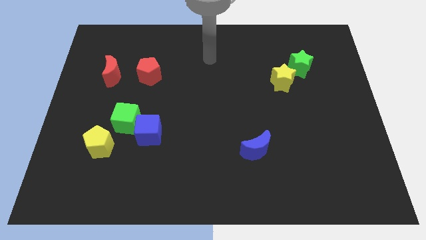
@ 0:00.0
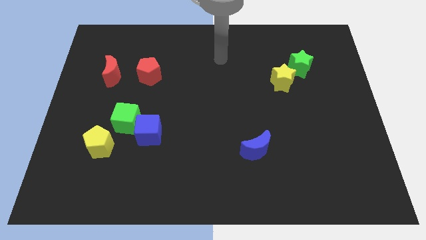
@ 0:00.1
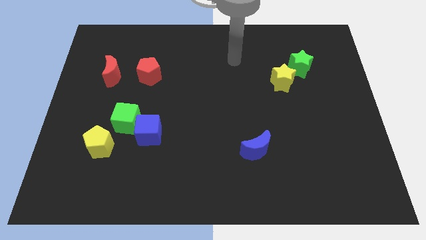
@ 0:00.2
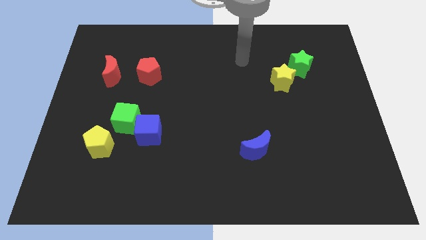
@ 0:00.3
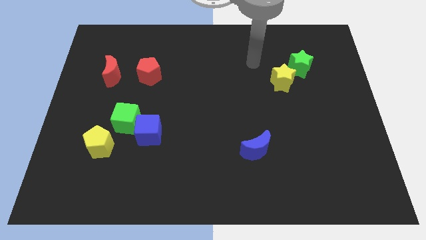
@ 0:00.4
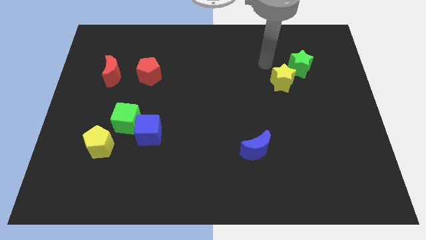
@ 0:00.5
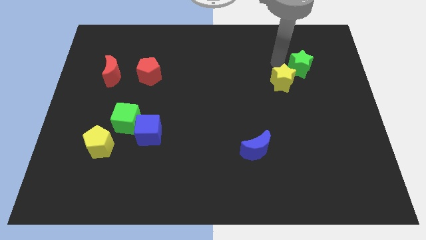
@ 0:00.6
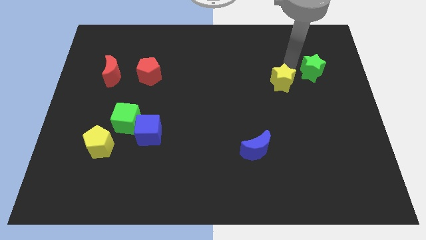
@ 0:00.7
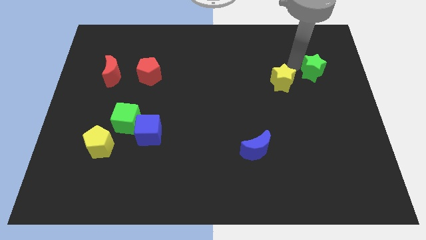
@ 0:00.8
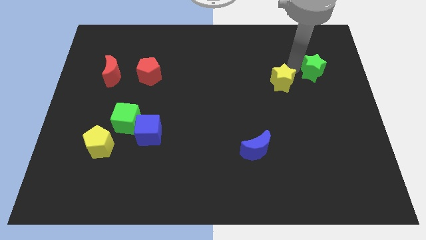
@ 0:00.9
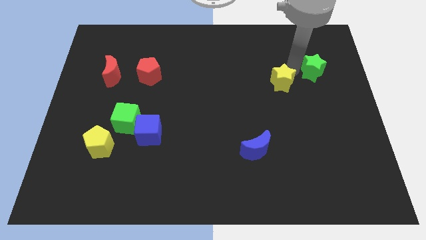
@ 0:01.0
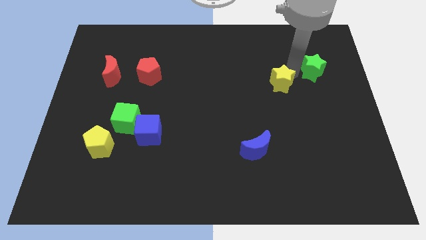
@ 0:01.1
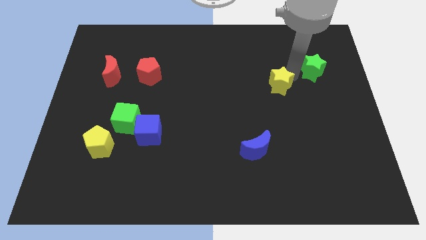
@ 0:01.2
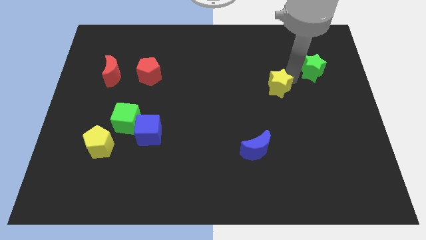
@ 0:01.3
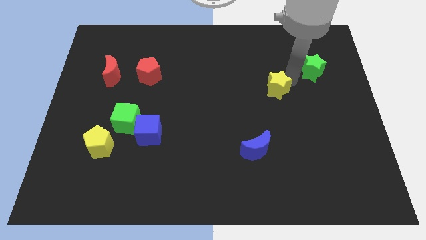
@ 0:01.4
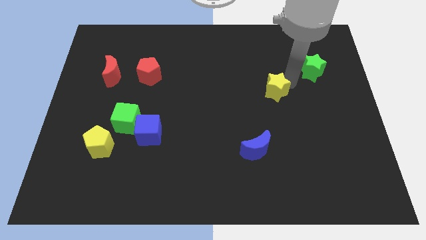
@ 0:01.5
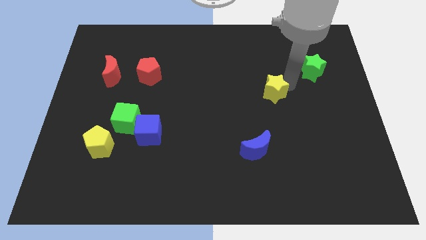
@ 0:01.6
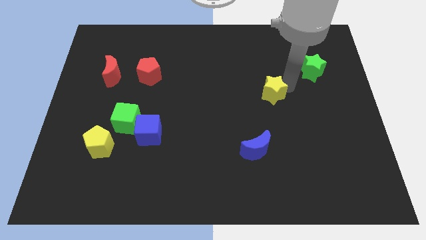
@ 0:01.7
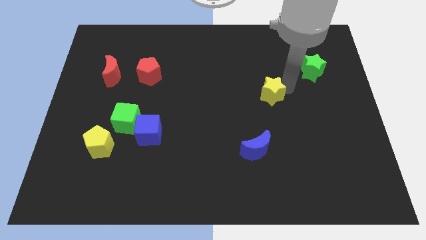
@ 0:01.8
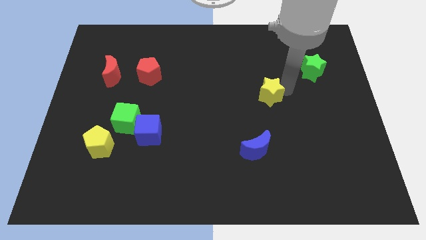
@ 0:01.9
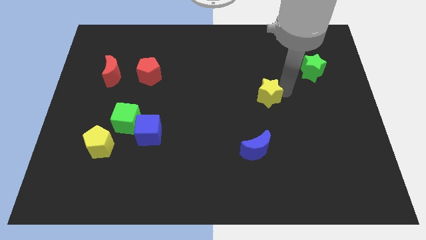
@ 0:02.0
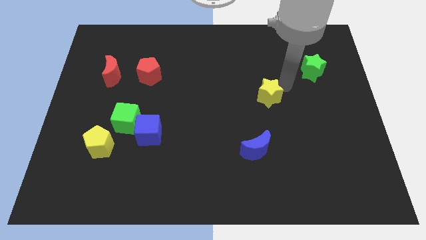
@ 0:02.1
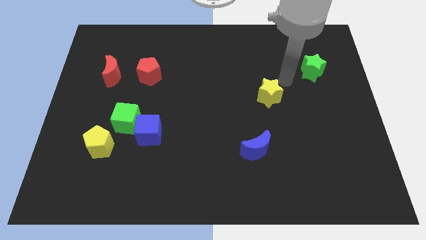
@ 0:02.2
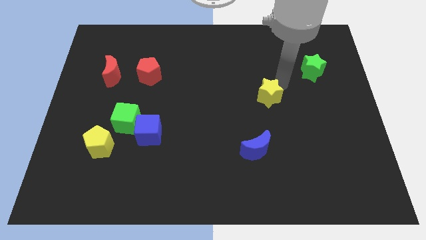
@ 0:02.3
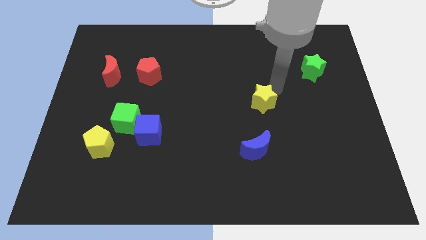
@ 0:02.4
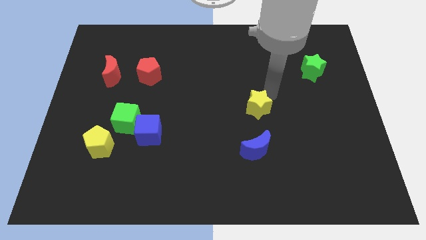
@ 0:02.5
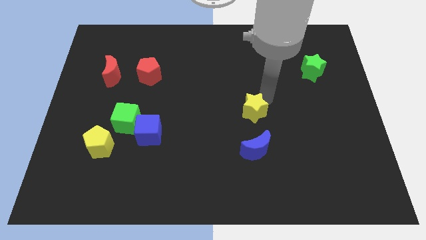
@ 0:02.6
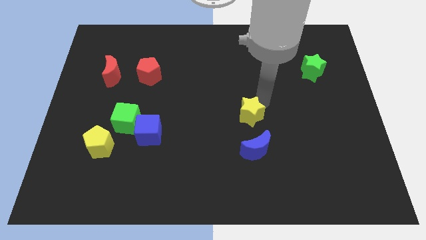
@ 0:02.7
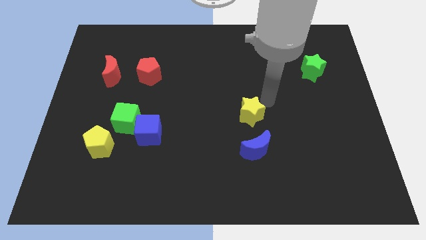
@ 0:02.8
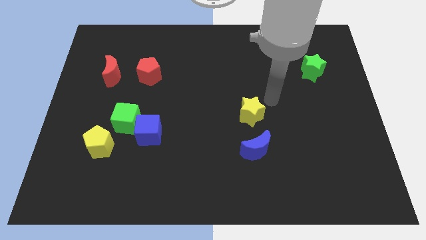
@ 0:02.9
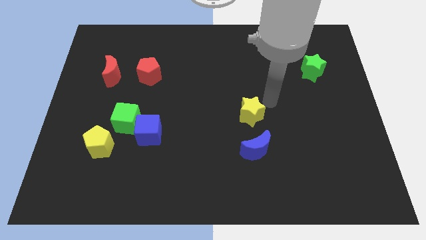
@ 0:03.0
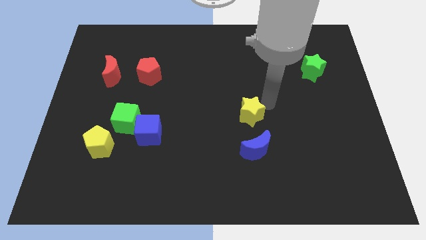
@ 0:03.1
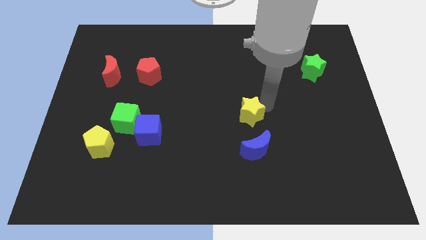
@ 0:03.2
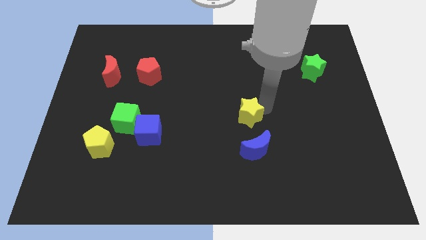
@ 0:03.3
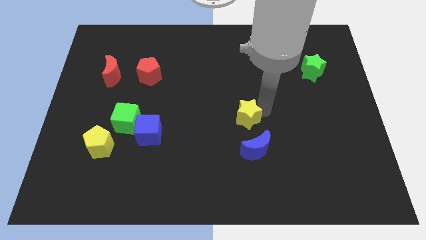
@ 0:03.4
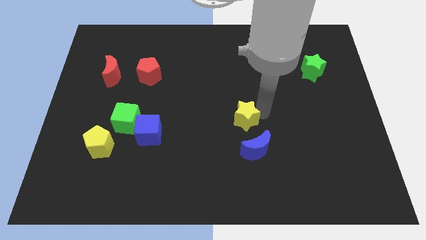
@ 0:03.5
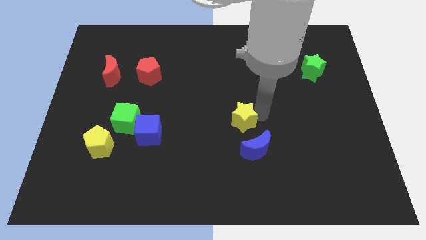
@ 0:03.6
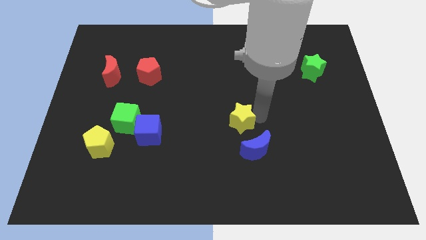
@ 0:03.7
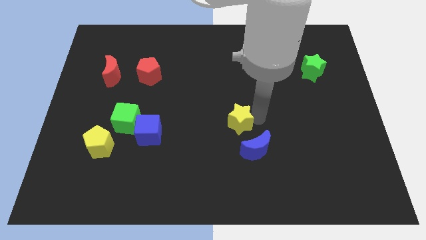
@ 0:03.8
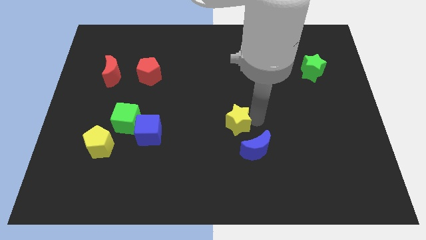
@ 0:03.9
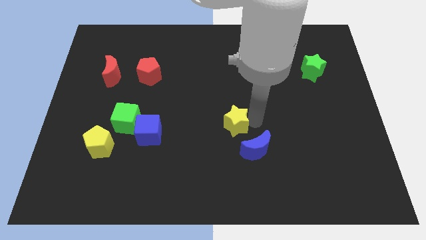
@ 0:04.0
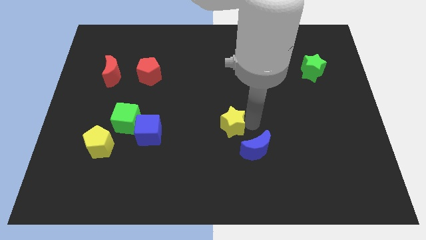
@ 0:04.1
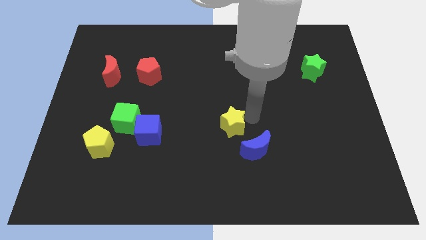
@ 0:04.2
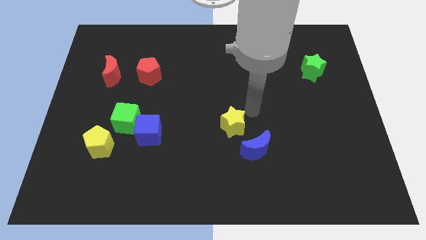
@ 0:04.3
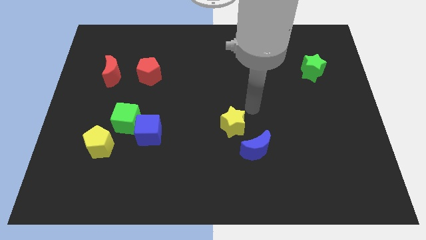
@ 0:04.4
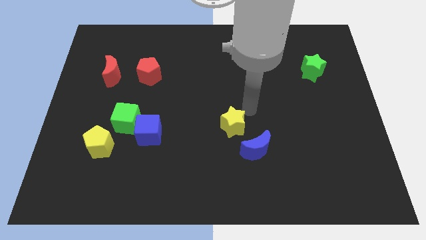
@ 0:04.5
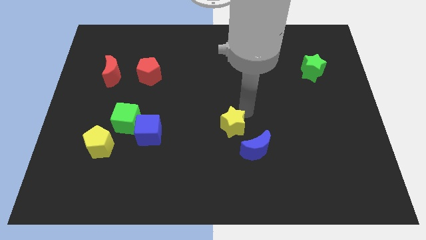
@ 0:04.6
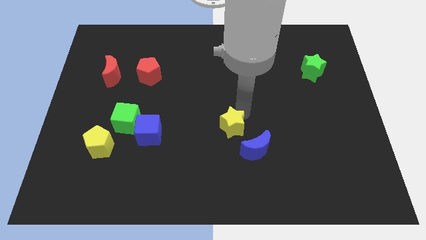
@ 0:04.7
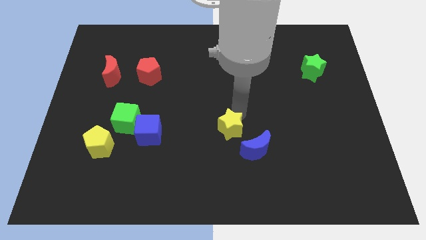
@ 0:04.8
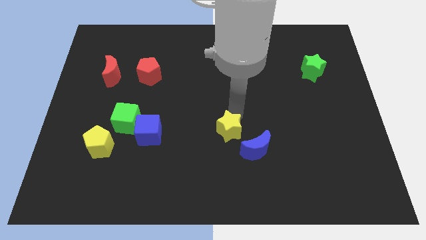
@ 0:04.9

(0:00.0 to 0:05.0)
move the yellow star down and then to the left

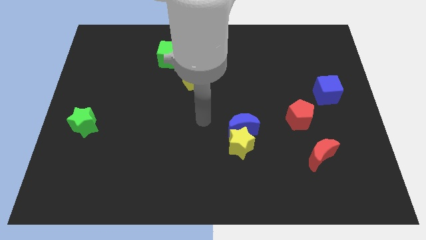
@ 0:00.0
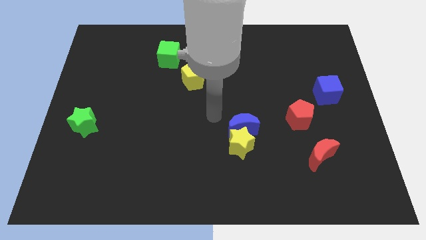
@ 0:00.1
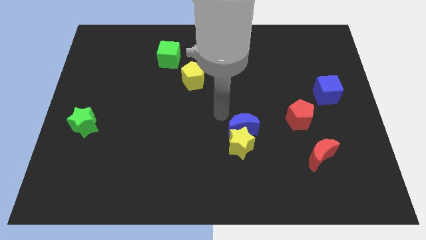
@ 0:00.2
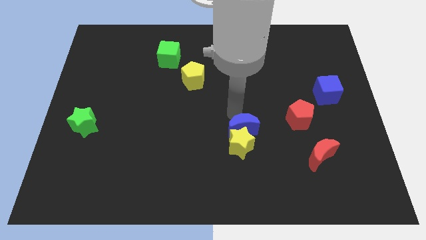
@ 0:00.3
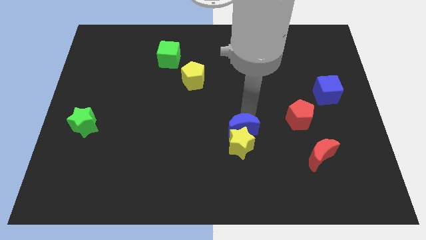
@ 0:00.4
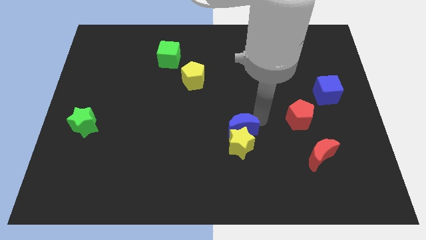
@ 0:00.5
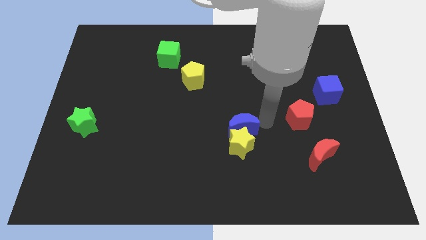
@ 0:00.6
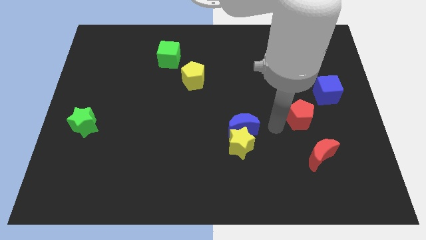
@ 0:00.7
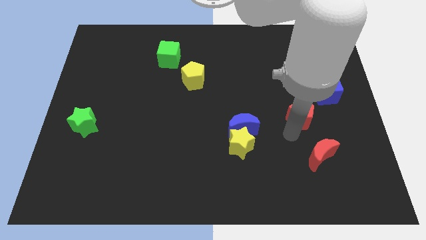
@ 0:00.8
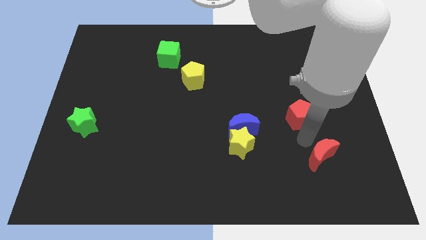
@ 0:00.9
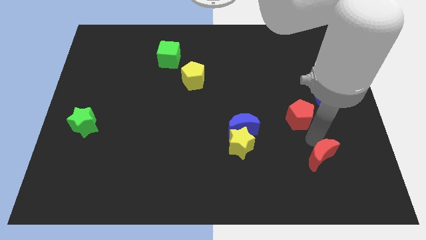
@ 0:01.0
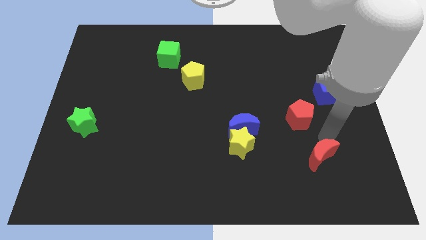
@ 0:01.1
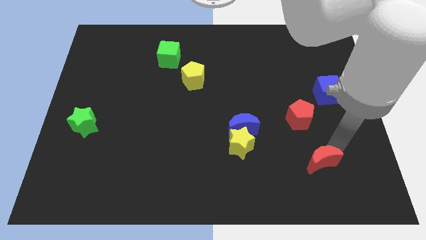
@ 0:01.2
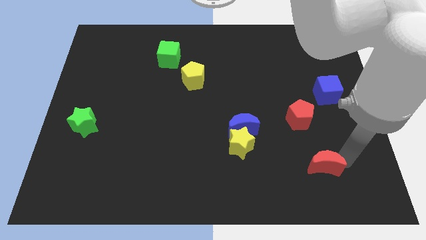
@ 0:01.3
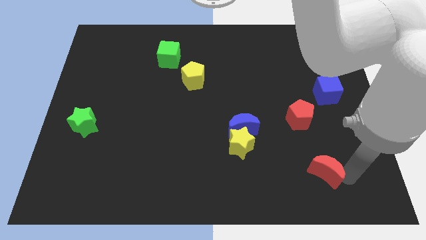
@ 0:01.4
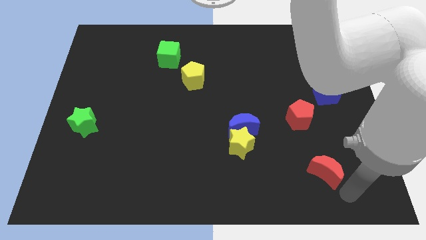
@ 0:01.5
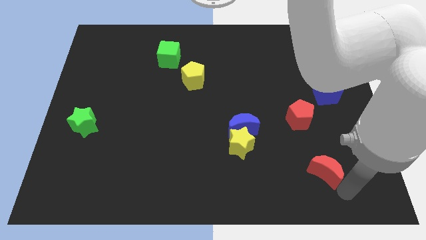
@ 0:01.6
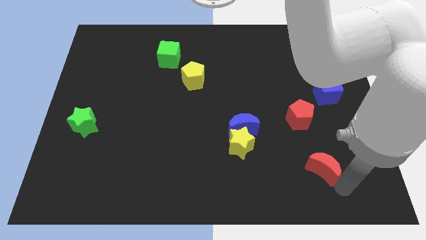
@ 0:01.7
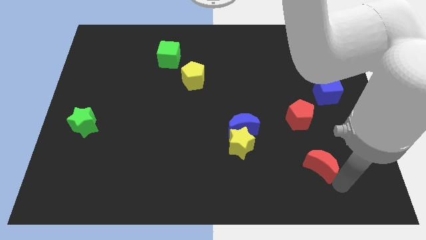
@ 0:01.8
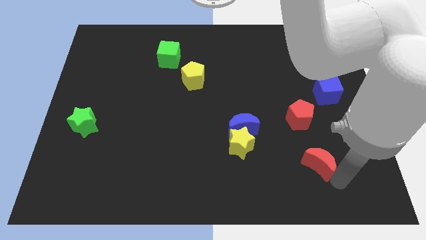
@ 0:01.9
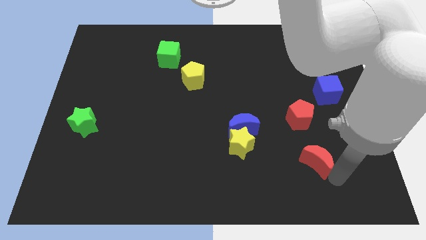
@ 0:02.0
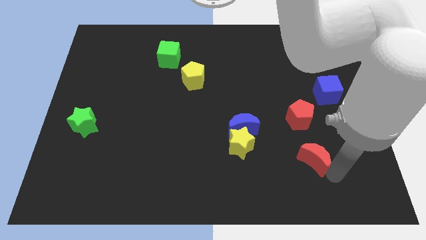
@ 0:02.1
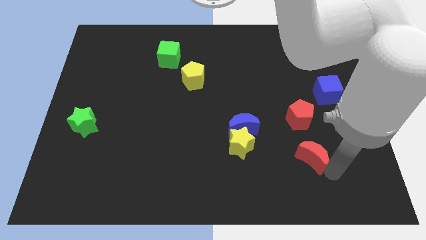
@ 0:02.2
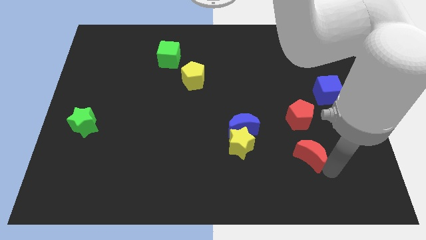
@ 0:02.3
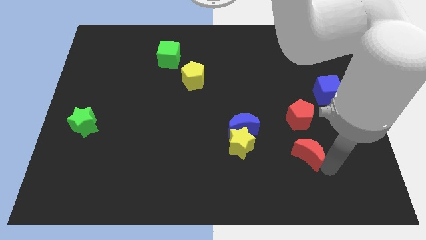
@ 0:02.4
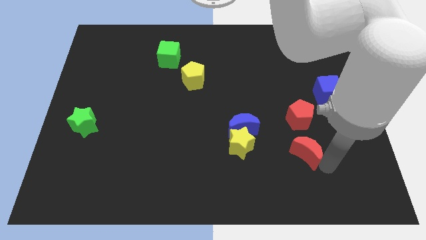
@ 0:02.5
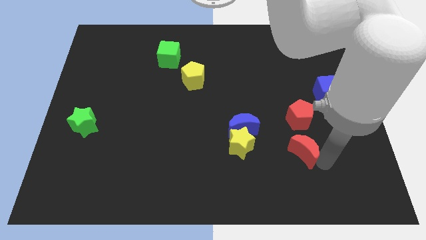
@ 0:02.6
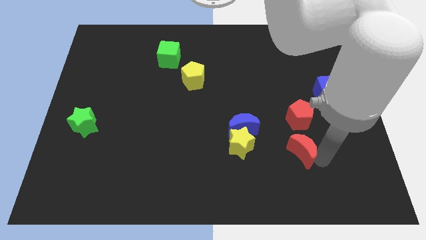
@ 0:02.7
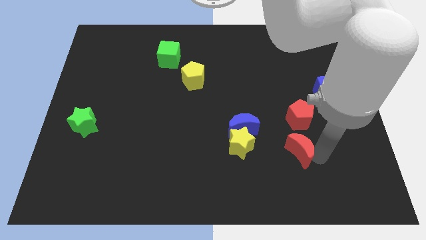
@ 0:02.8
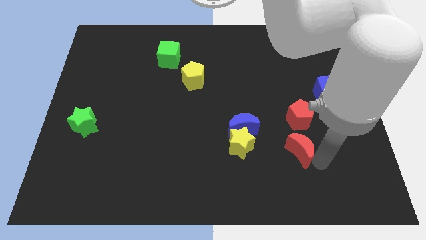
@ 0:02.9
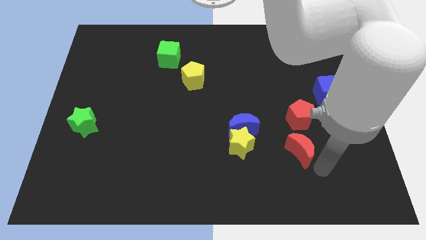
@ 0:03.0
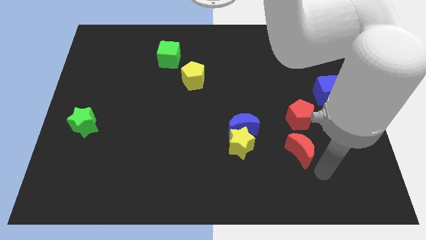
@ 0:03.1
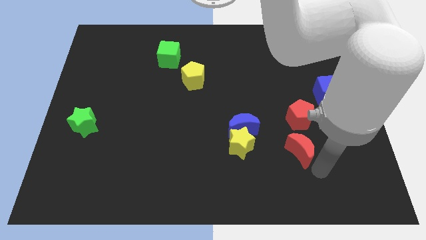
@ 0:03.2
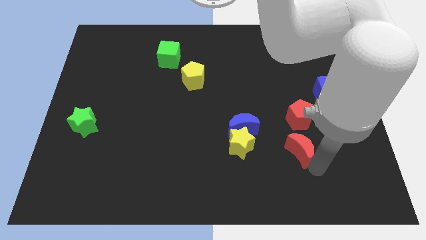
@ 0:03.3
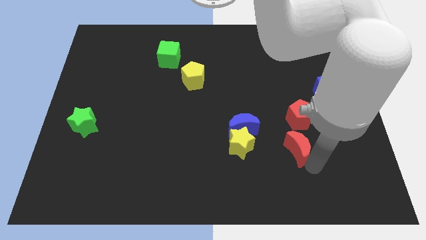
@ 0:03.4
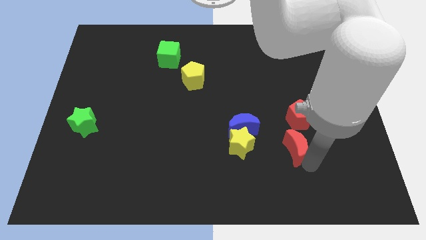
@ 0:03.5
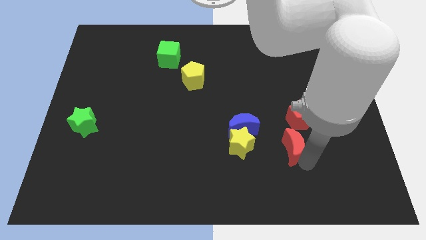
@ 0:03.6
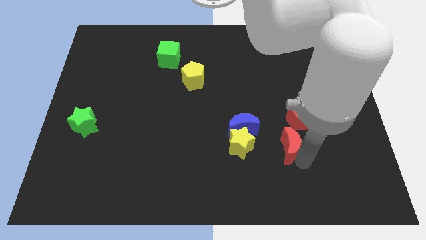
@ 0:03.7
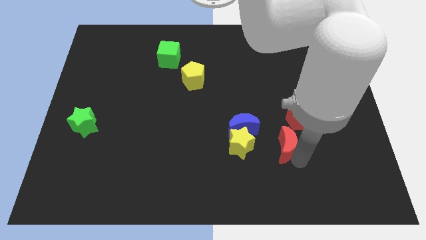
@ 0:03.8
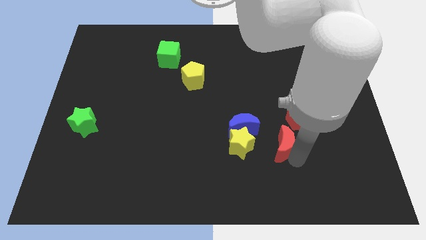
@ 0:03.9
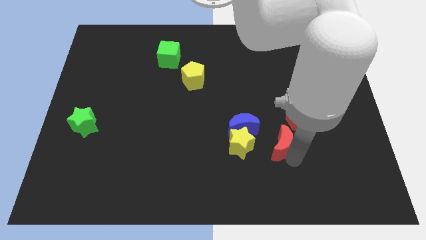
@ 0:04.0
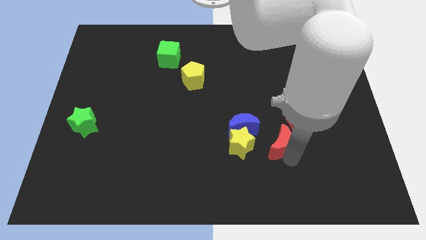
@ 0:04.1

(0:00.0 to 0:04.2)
slightly slide the red moon upwards and left diagonally
